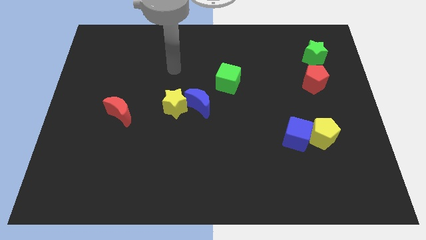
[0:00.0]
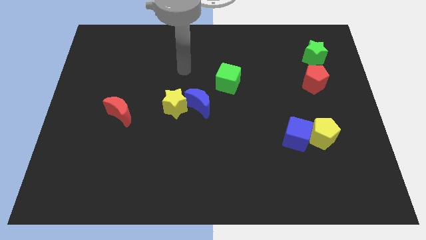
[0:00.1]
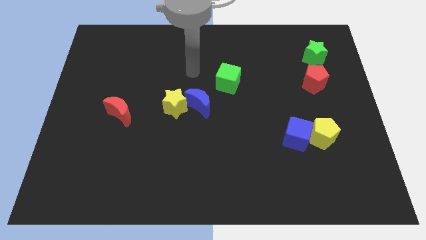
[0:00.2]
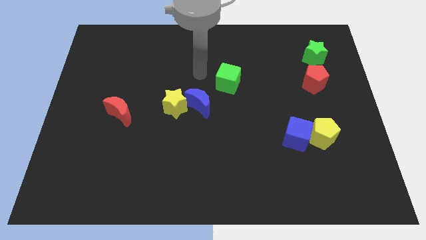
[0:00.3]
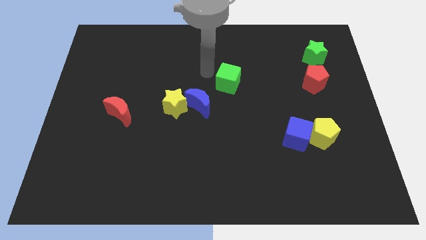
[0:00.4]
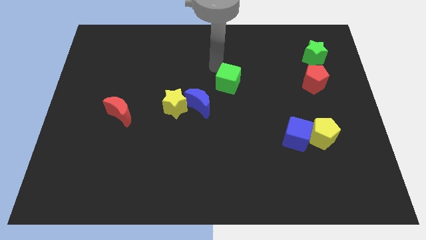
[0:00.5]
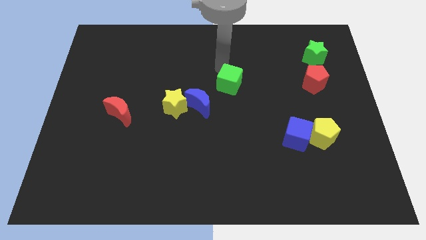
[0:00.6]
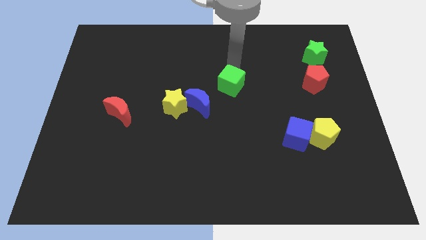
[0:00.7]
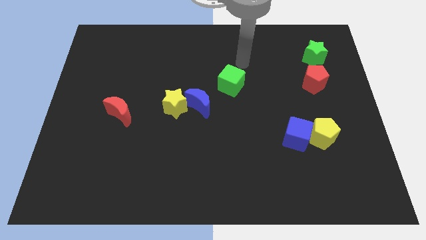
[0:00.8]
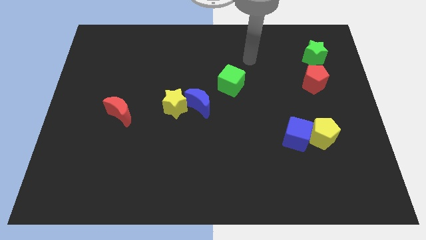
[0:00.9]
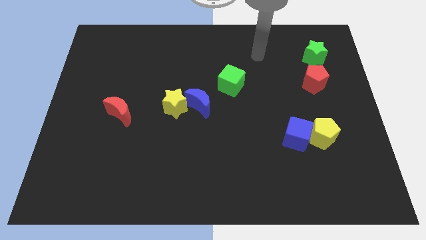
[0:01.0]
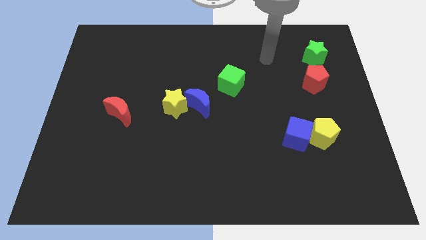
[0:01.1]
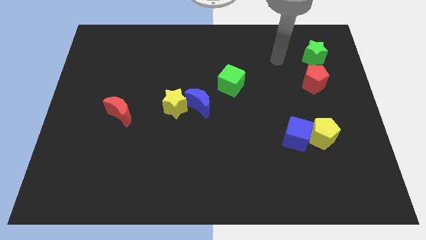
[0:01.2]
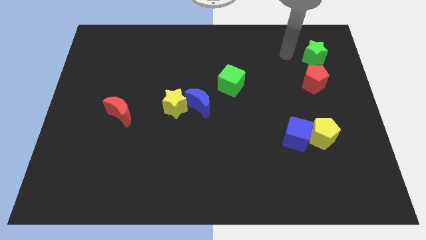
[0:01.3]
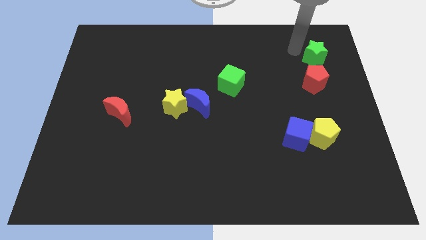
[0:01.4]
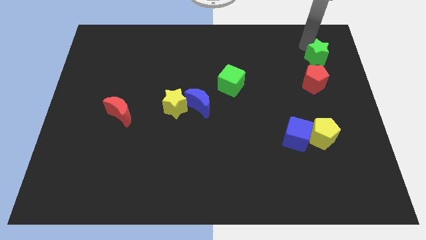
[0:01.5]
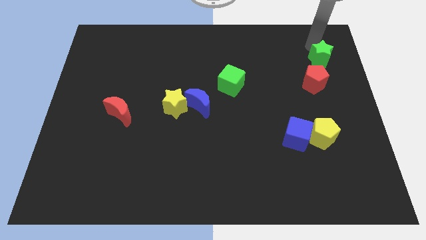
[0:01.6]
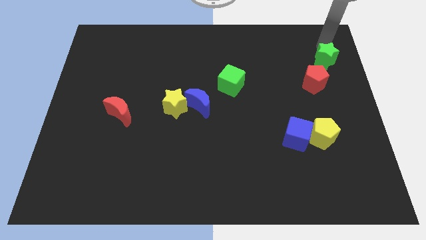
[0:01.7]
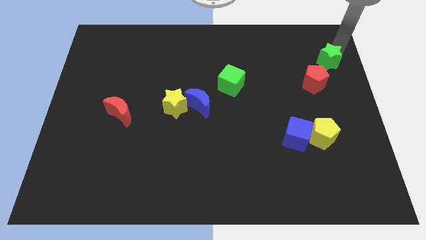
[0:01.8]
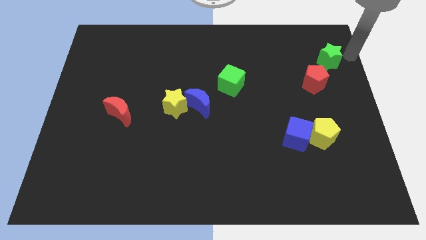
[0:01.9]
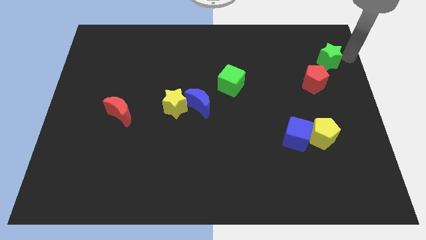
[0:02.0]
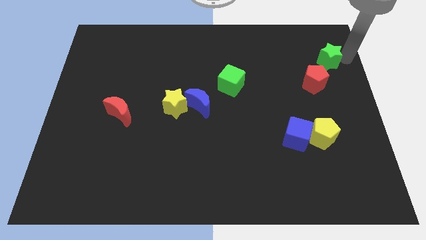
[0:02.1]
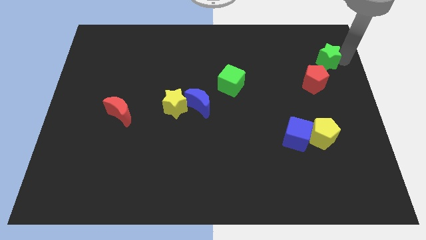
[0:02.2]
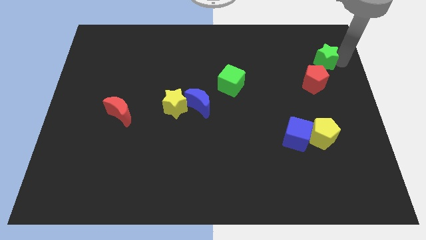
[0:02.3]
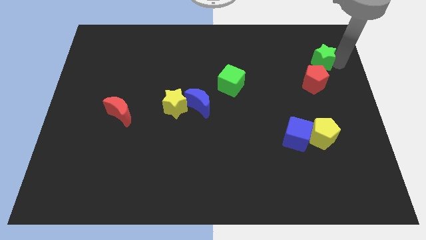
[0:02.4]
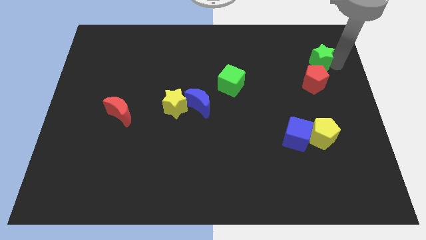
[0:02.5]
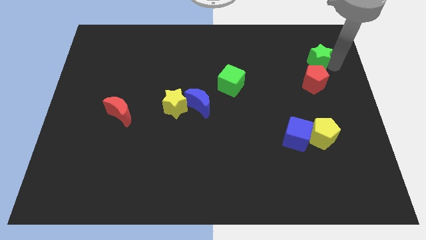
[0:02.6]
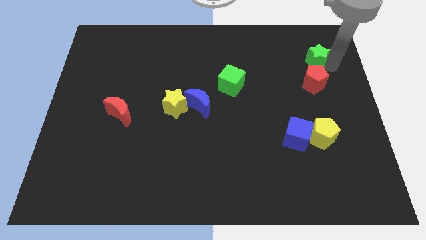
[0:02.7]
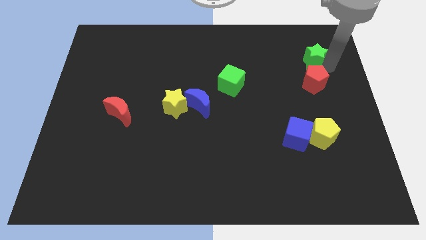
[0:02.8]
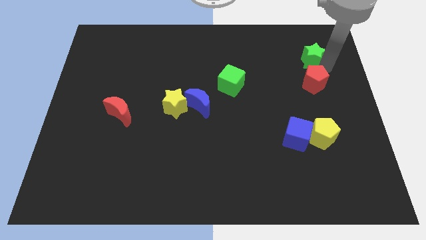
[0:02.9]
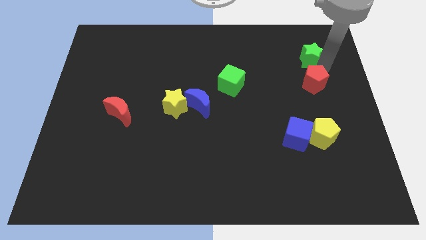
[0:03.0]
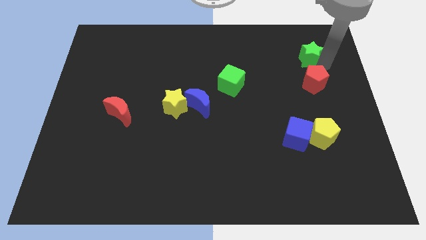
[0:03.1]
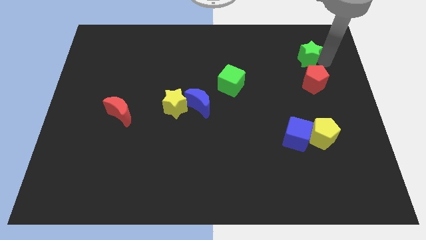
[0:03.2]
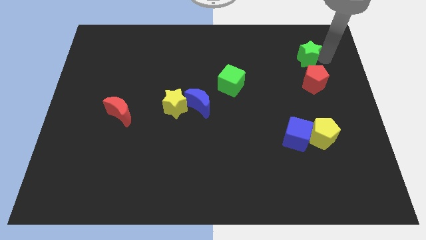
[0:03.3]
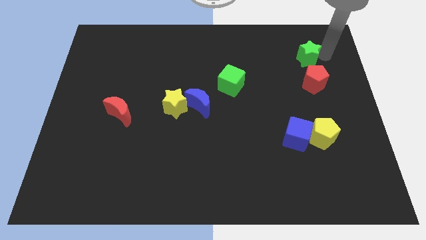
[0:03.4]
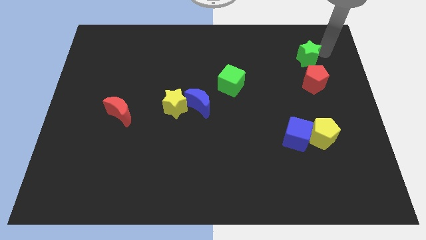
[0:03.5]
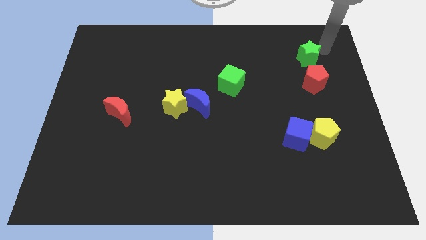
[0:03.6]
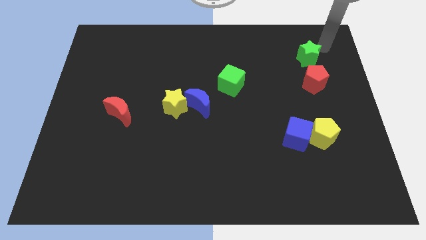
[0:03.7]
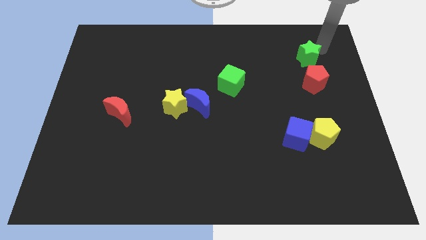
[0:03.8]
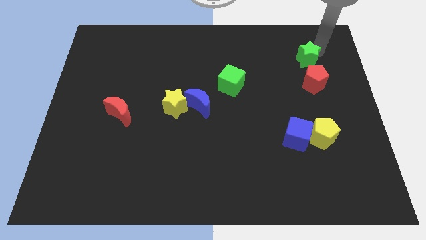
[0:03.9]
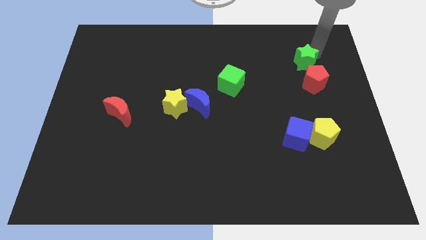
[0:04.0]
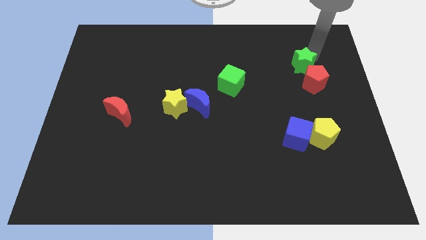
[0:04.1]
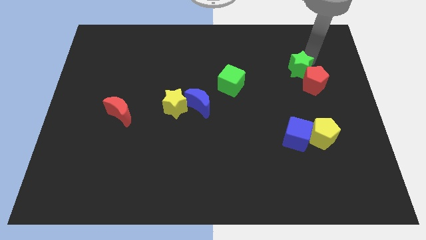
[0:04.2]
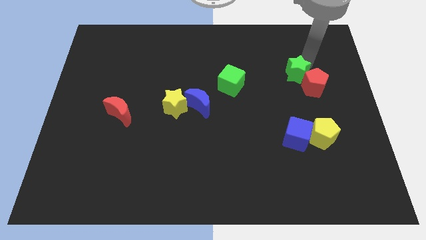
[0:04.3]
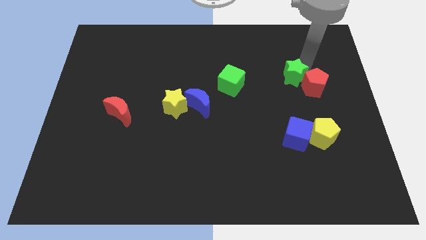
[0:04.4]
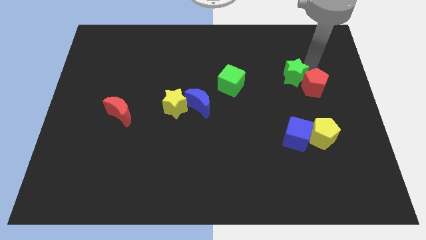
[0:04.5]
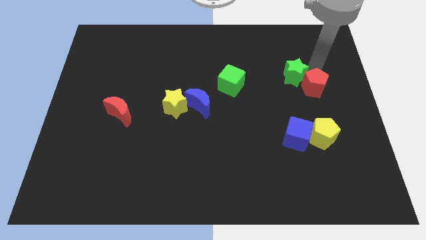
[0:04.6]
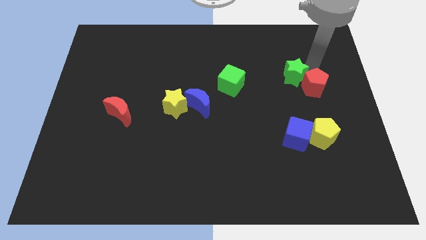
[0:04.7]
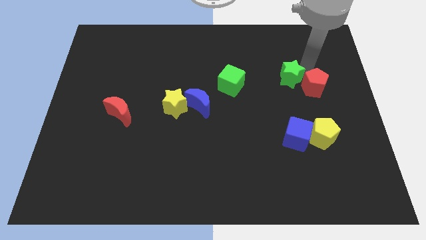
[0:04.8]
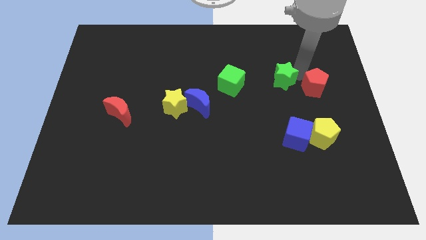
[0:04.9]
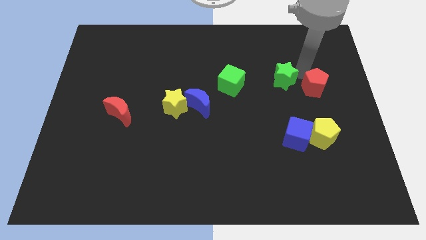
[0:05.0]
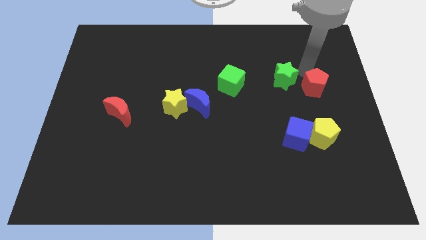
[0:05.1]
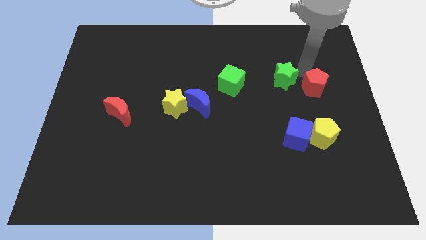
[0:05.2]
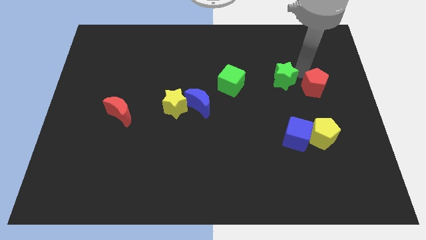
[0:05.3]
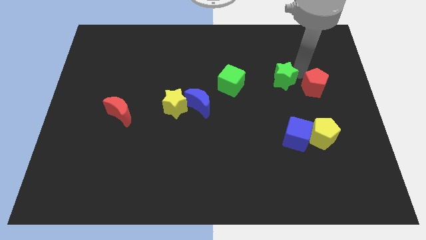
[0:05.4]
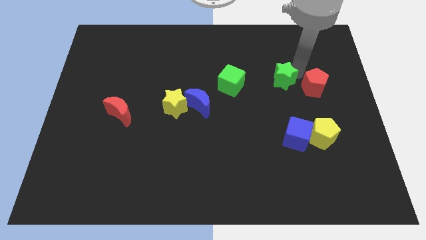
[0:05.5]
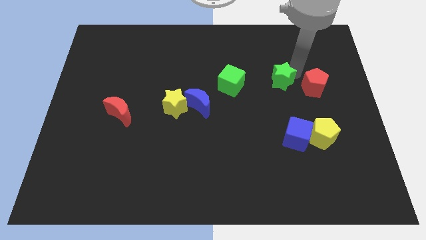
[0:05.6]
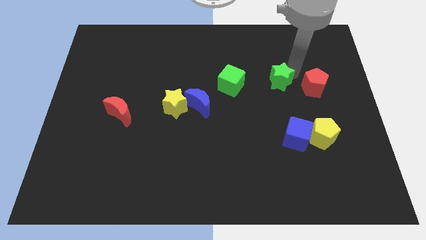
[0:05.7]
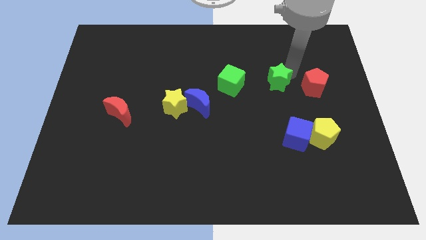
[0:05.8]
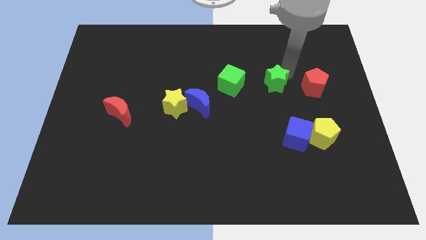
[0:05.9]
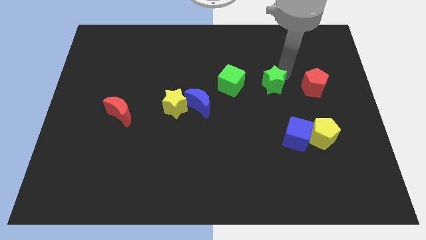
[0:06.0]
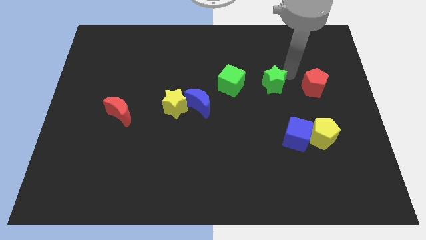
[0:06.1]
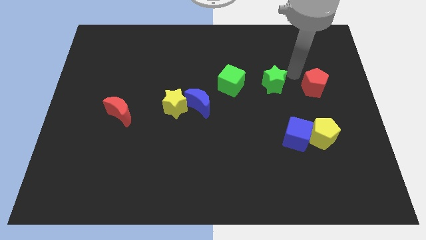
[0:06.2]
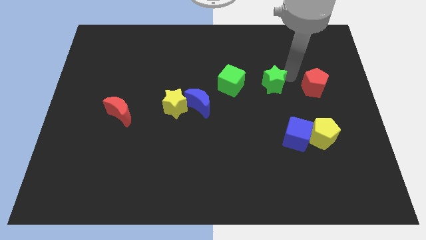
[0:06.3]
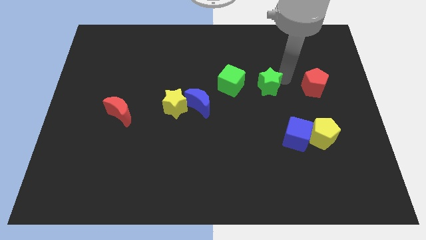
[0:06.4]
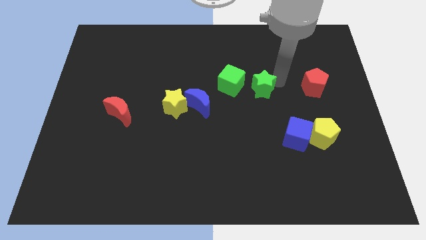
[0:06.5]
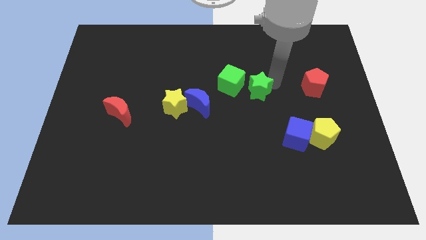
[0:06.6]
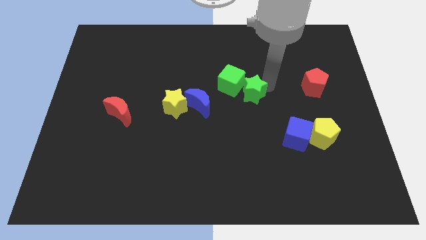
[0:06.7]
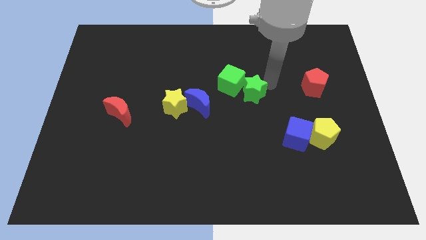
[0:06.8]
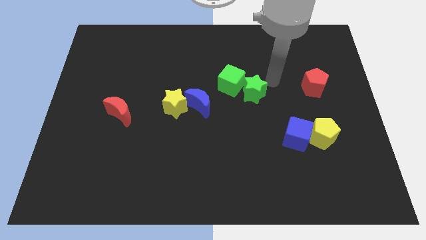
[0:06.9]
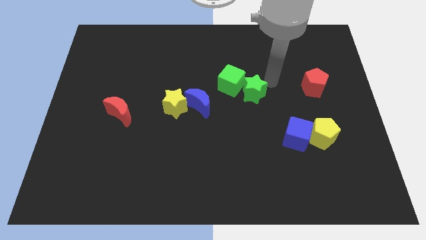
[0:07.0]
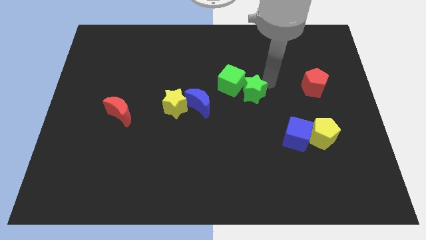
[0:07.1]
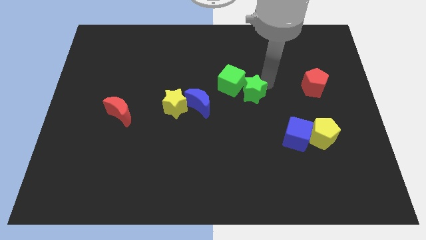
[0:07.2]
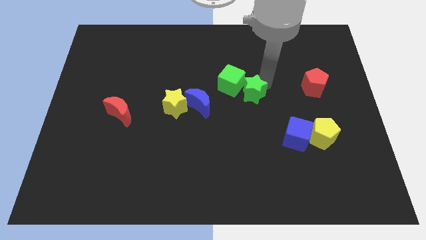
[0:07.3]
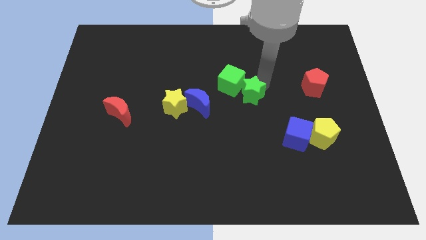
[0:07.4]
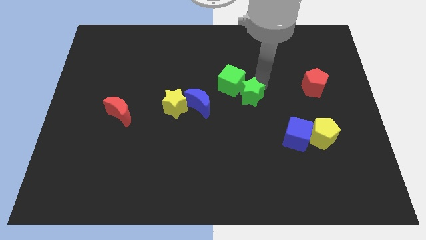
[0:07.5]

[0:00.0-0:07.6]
push the green star to the bottom of the green cube
